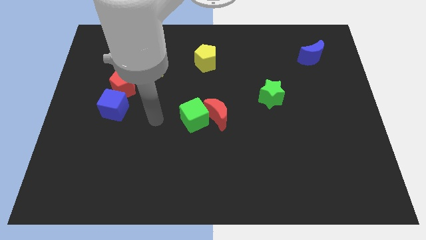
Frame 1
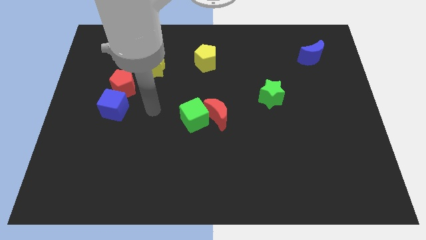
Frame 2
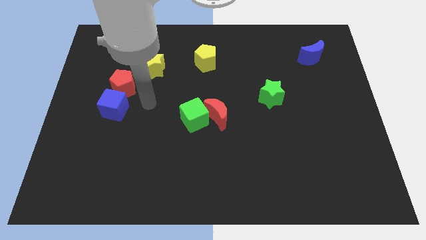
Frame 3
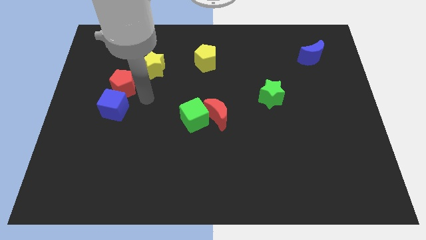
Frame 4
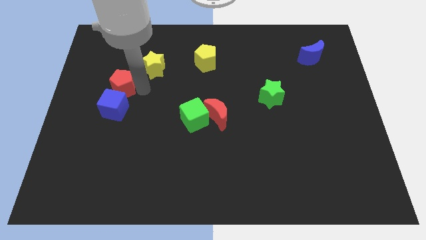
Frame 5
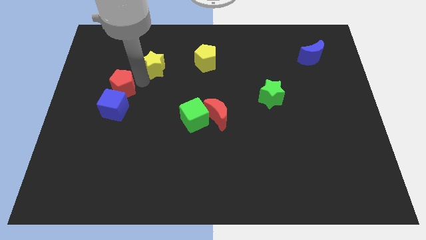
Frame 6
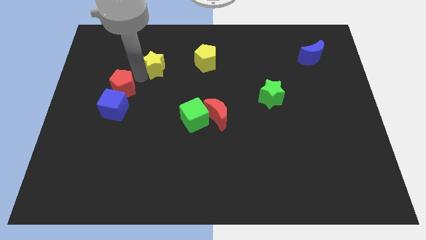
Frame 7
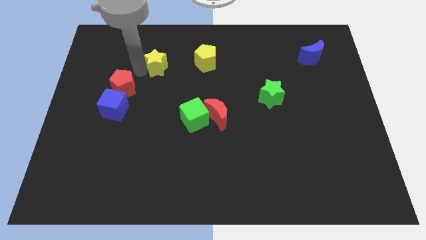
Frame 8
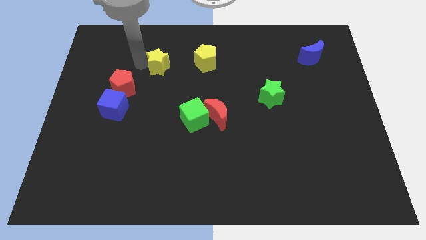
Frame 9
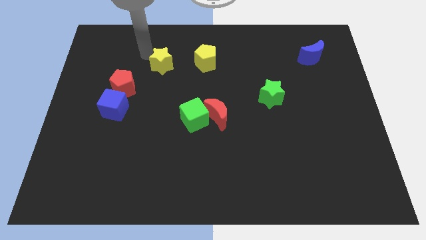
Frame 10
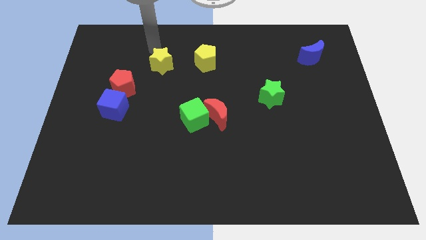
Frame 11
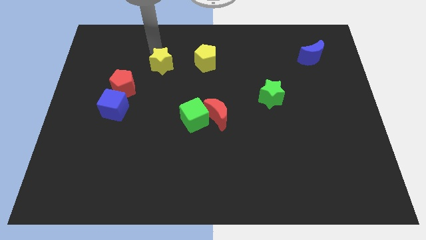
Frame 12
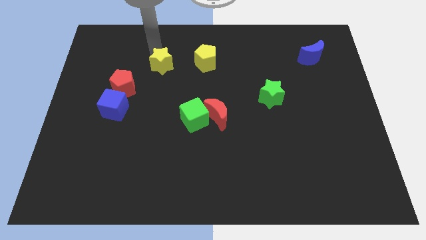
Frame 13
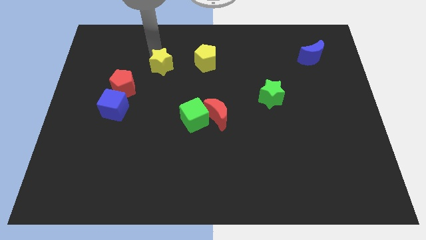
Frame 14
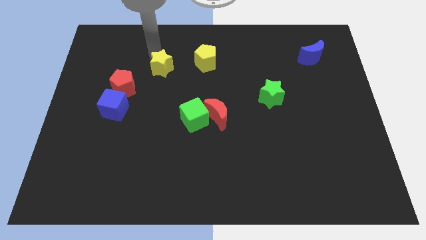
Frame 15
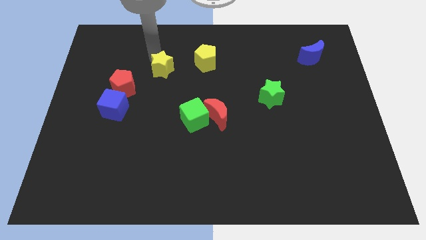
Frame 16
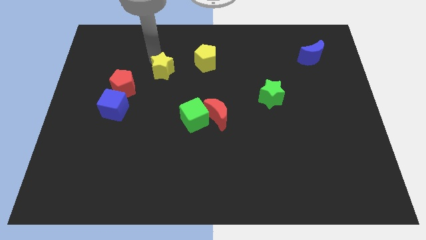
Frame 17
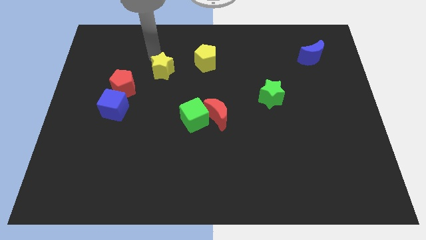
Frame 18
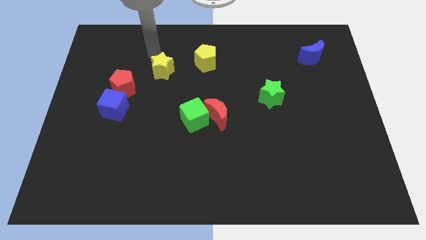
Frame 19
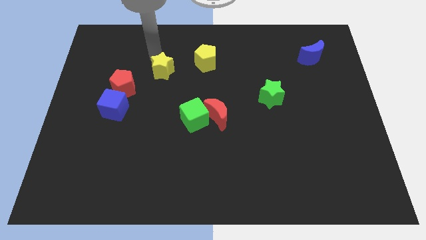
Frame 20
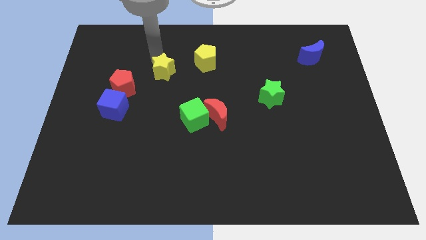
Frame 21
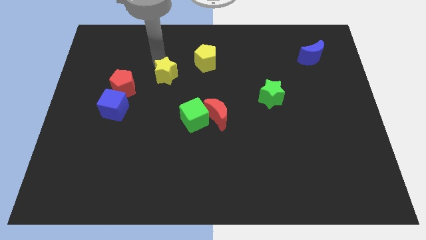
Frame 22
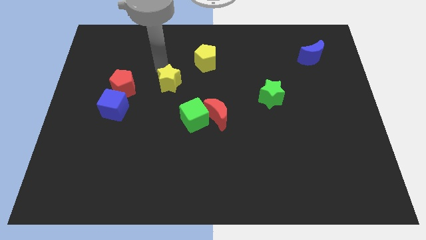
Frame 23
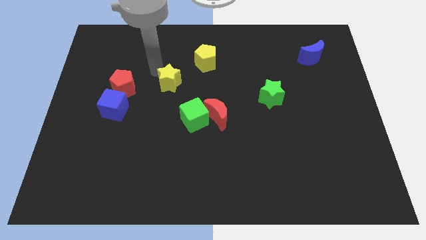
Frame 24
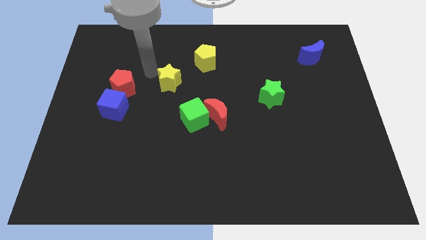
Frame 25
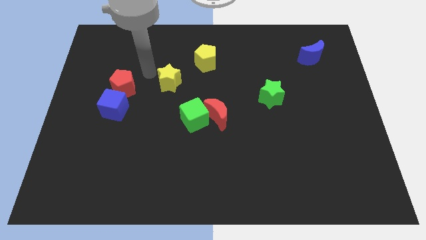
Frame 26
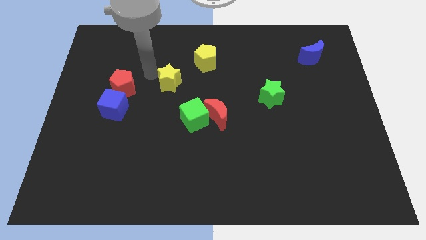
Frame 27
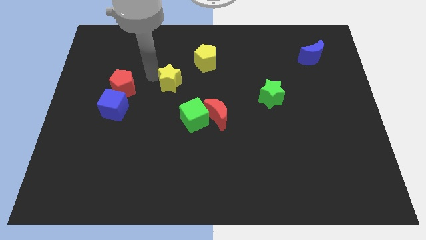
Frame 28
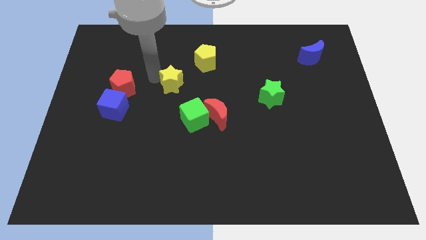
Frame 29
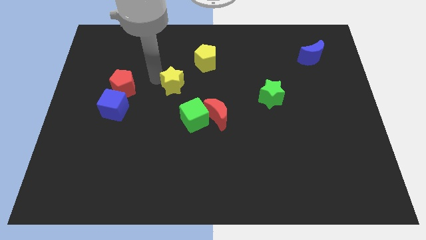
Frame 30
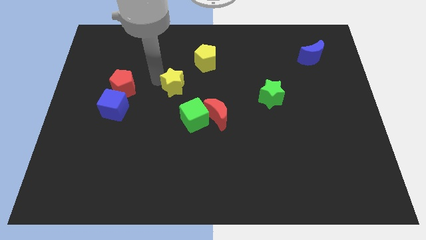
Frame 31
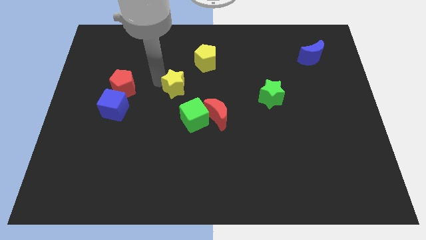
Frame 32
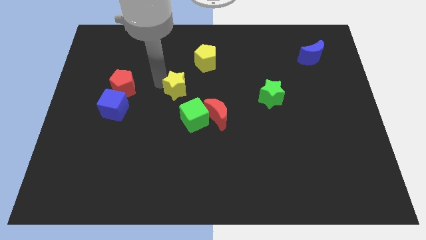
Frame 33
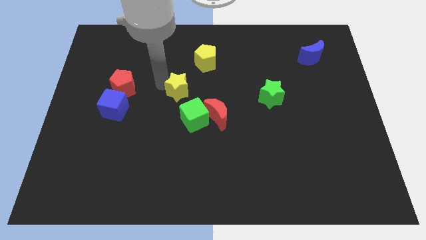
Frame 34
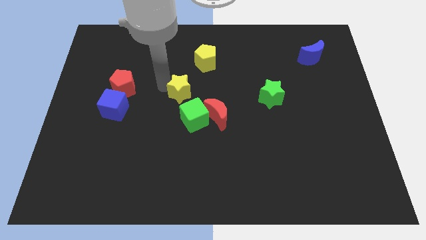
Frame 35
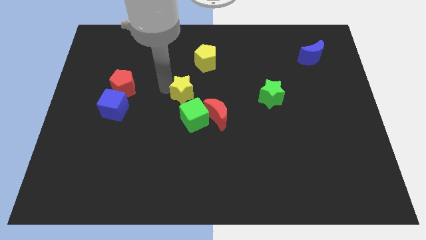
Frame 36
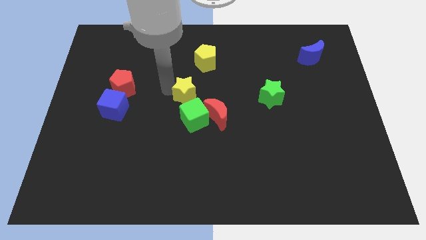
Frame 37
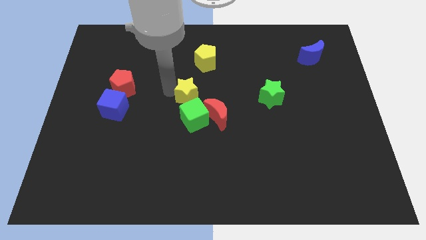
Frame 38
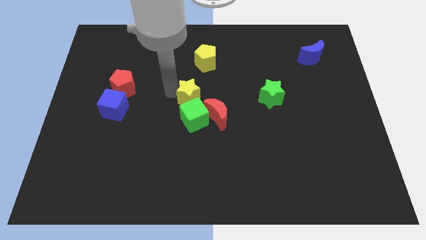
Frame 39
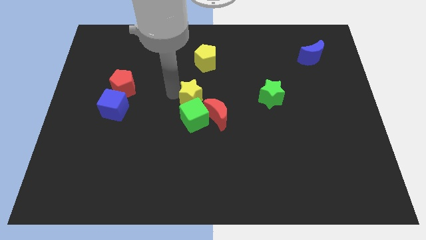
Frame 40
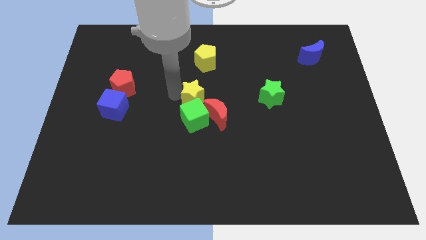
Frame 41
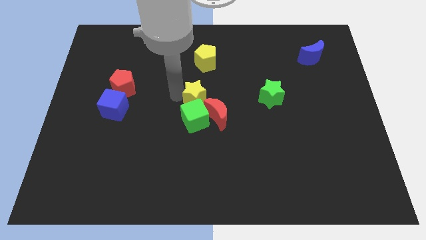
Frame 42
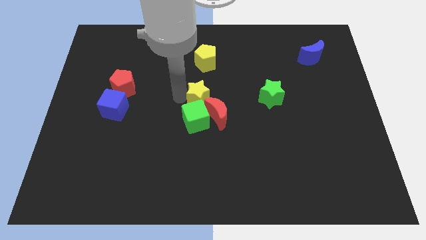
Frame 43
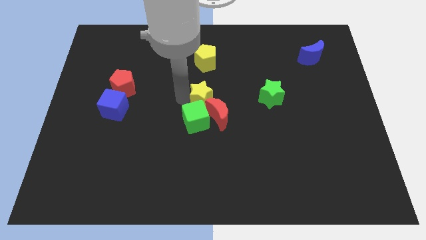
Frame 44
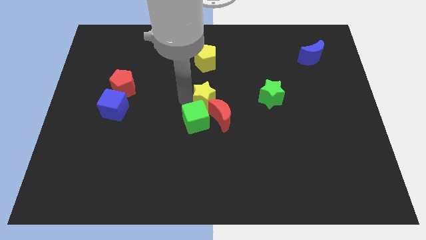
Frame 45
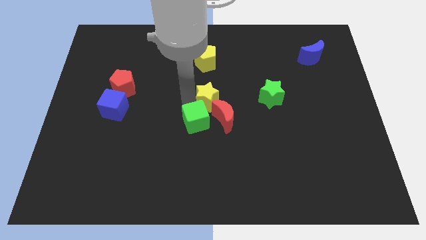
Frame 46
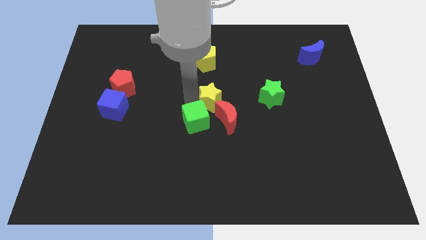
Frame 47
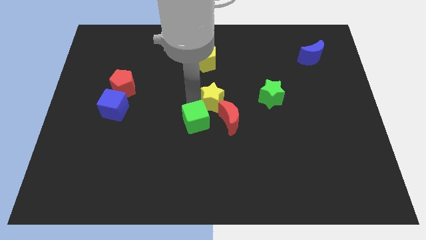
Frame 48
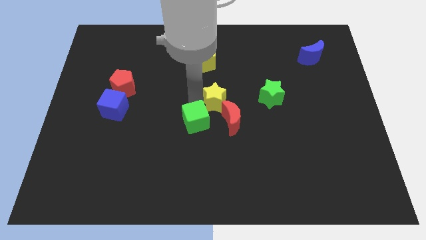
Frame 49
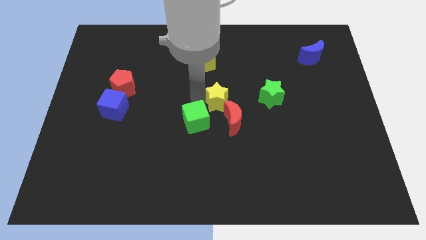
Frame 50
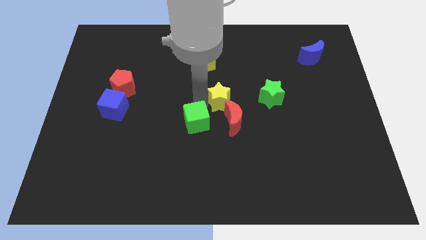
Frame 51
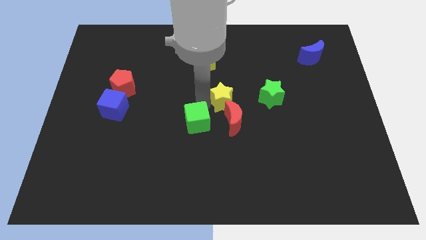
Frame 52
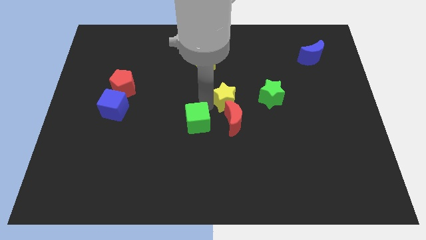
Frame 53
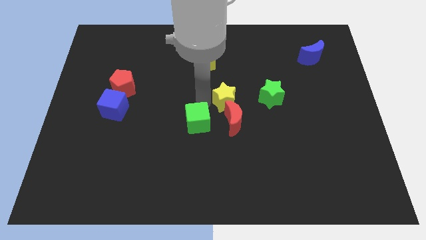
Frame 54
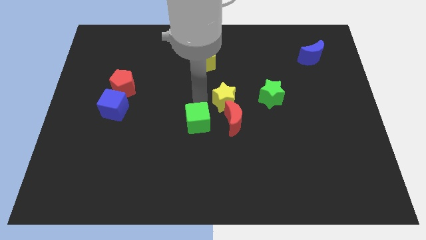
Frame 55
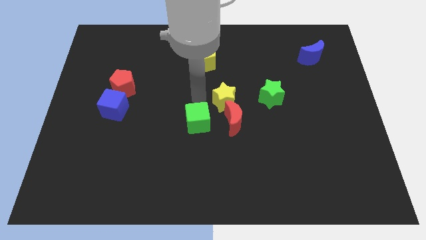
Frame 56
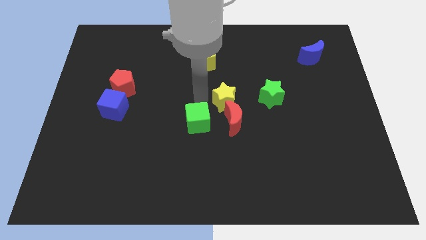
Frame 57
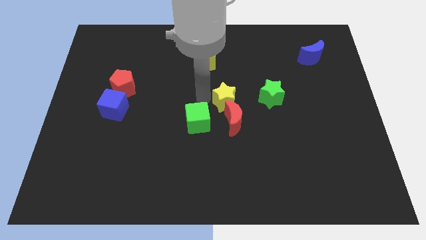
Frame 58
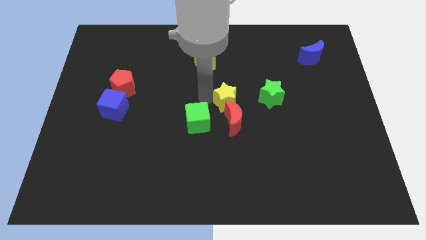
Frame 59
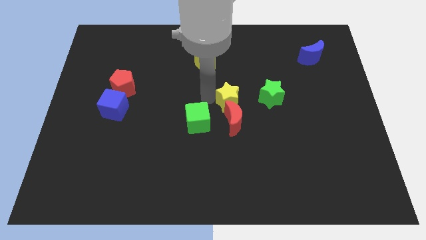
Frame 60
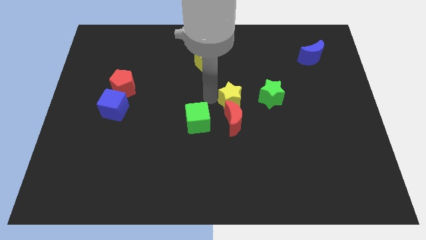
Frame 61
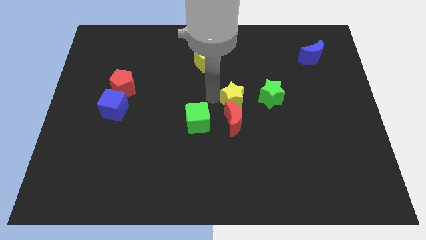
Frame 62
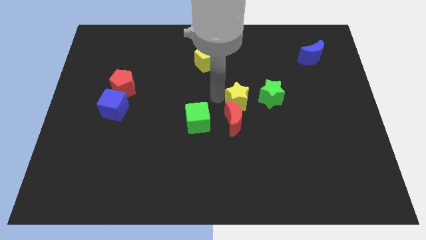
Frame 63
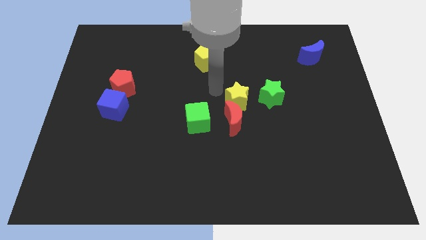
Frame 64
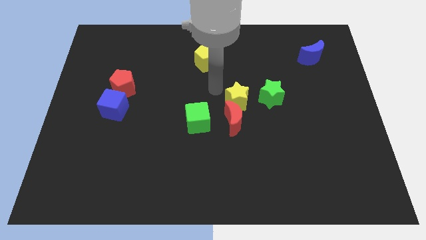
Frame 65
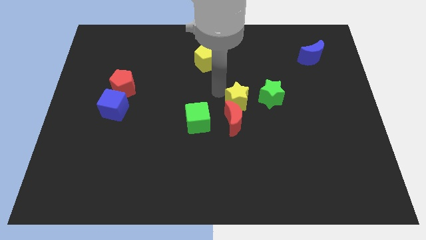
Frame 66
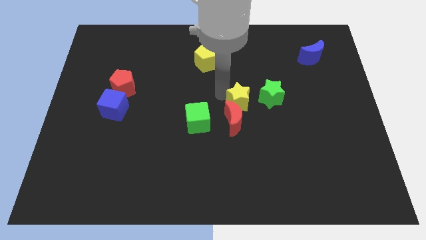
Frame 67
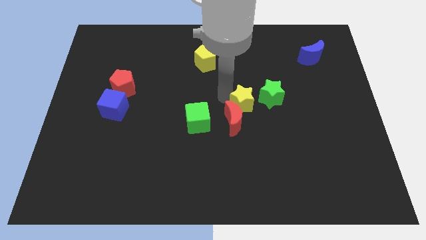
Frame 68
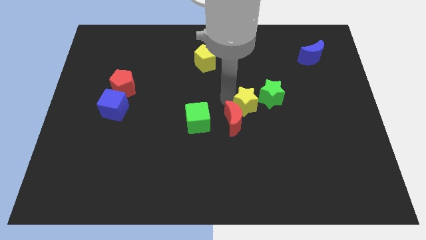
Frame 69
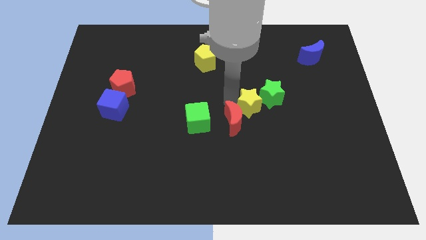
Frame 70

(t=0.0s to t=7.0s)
slide the yellow star to the right of the red moon

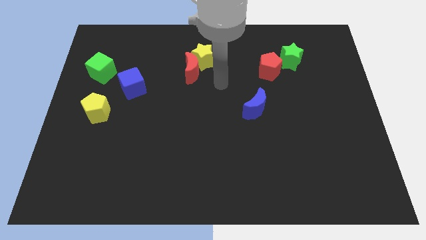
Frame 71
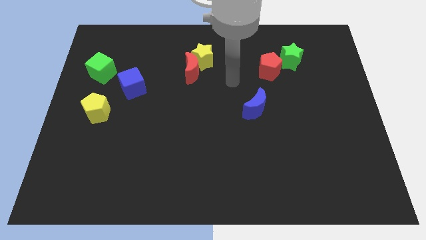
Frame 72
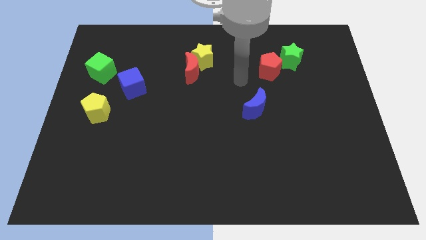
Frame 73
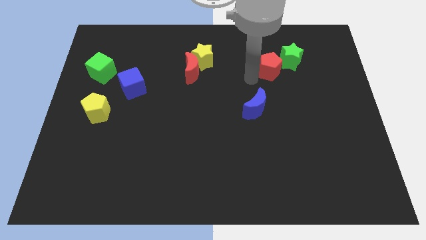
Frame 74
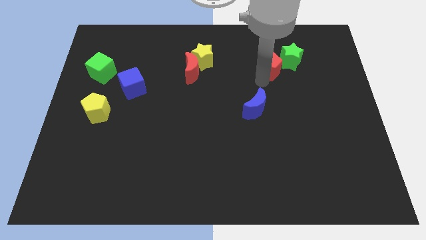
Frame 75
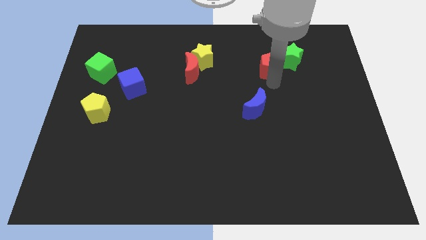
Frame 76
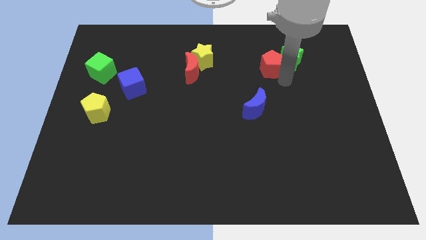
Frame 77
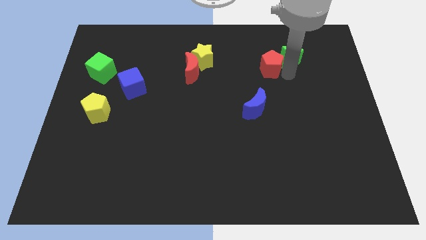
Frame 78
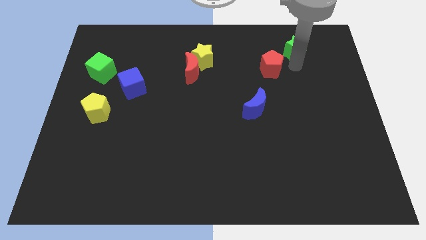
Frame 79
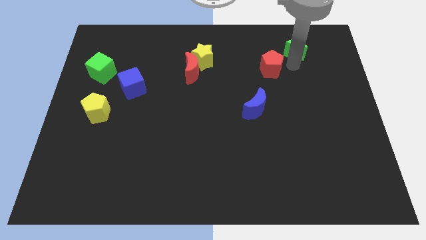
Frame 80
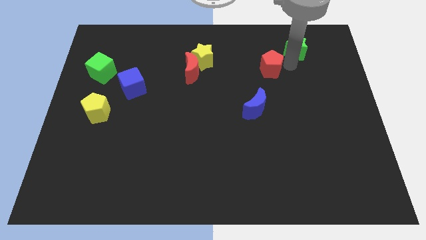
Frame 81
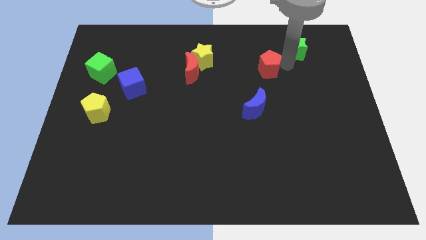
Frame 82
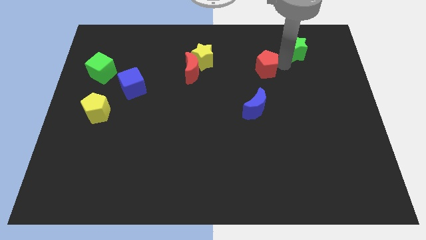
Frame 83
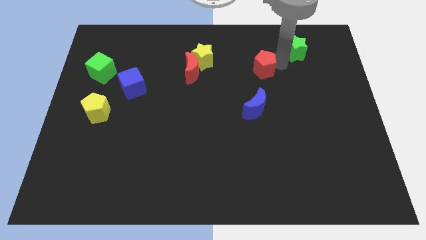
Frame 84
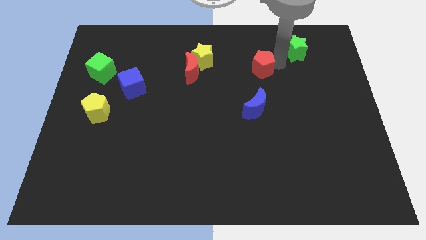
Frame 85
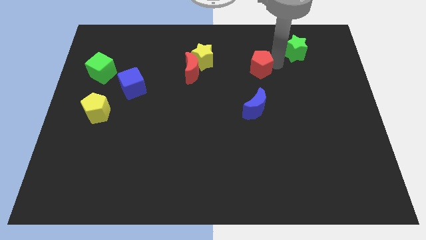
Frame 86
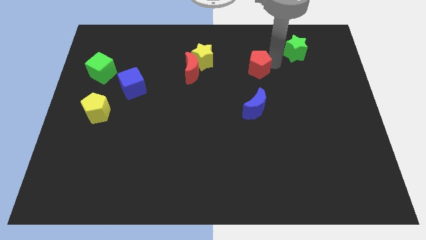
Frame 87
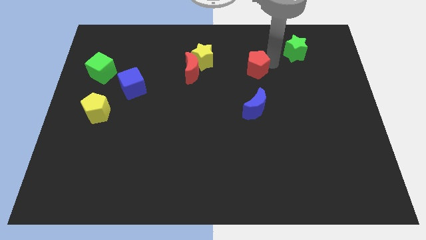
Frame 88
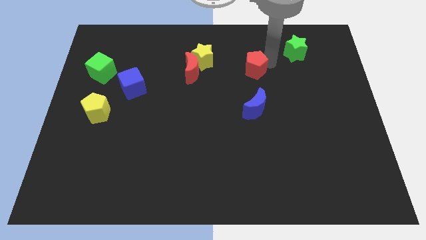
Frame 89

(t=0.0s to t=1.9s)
slide the red pentagon right of the red moon
